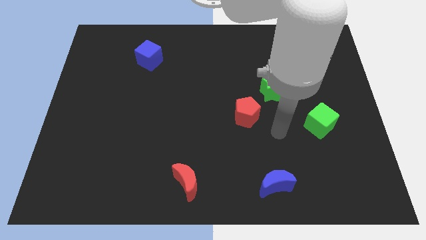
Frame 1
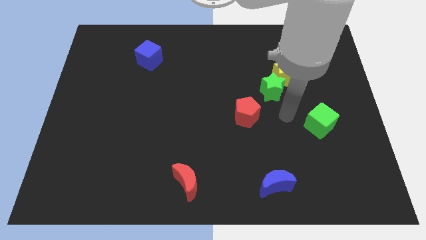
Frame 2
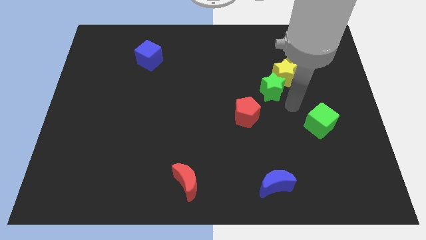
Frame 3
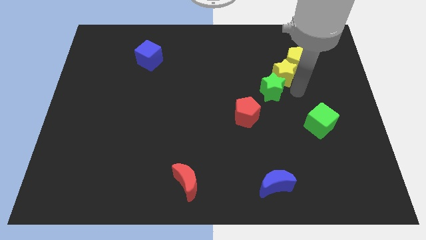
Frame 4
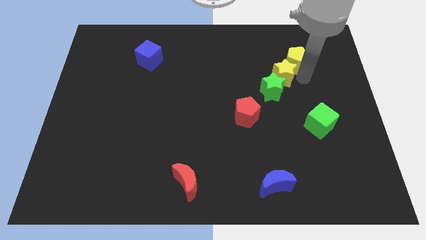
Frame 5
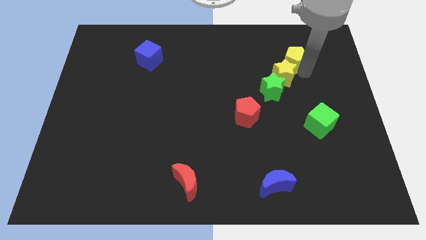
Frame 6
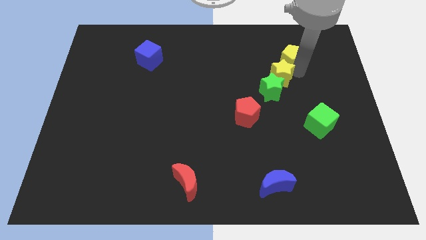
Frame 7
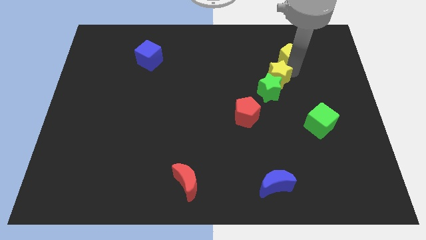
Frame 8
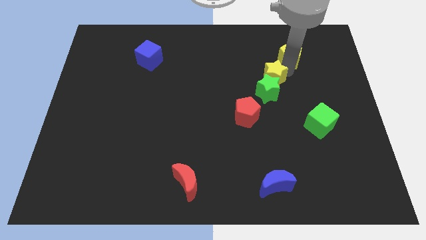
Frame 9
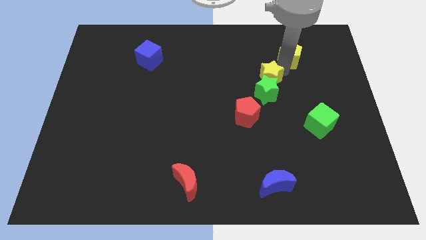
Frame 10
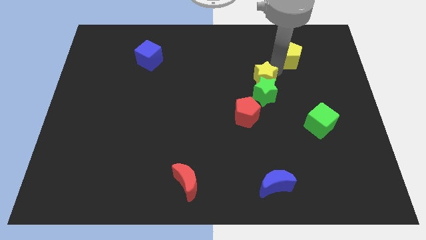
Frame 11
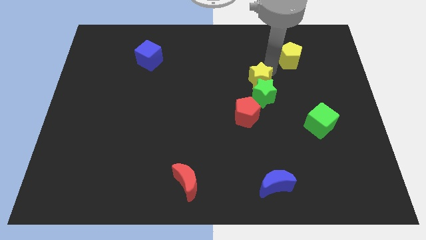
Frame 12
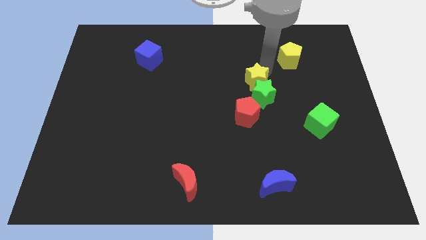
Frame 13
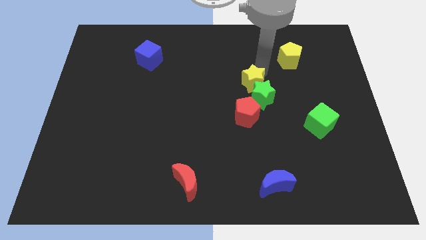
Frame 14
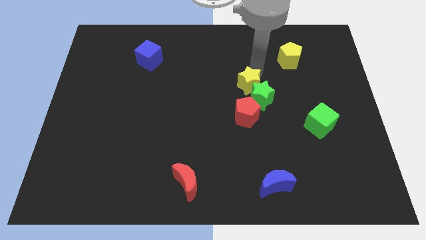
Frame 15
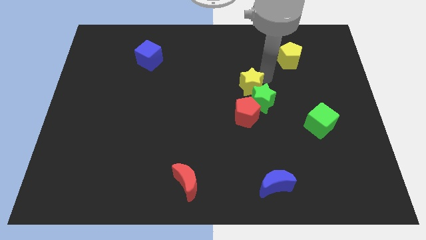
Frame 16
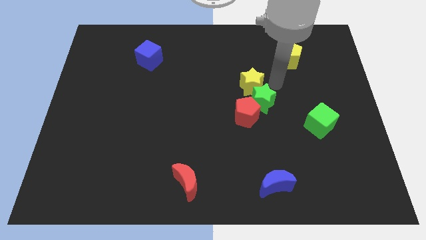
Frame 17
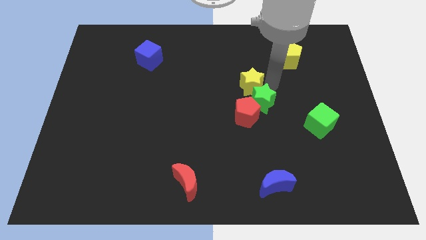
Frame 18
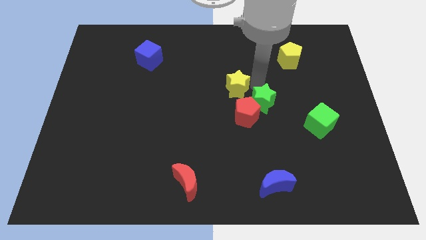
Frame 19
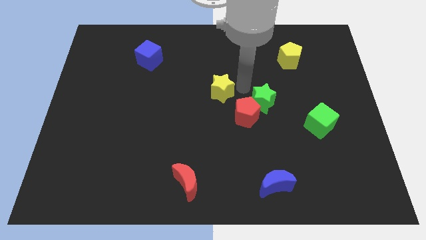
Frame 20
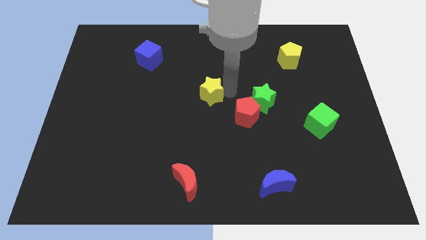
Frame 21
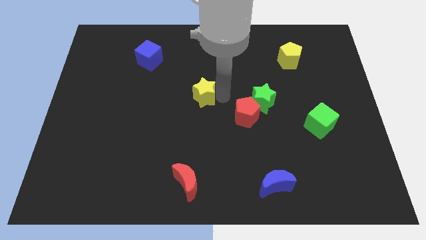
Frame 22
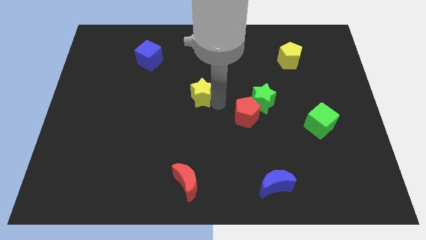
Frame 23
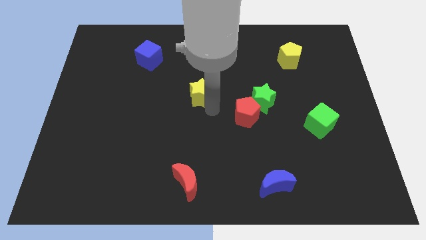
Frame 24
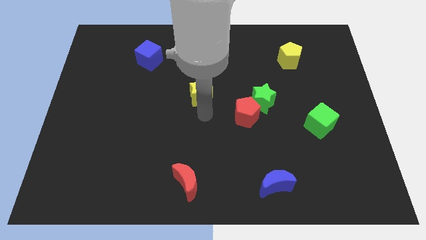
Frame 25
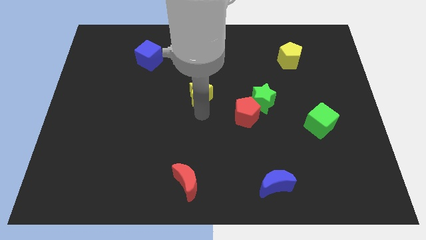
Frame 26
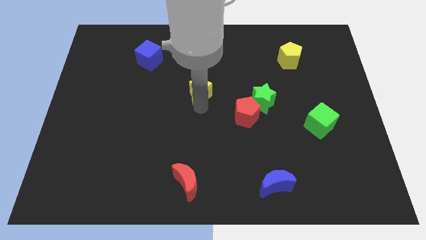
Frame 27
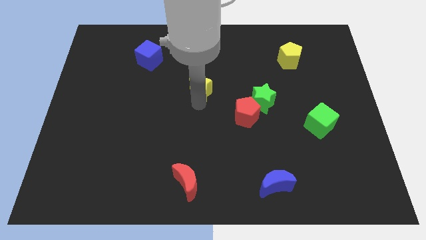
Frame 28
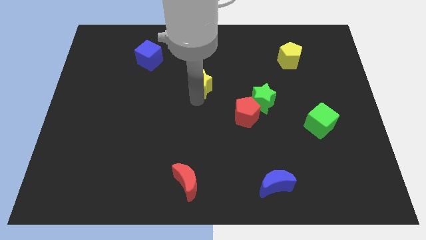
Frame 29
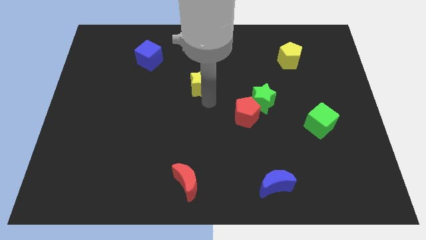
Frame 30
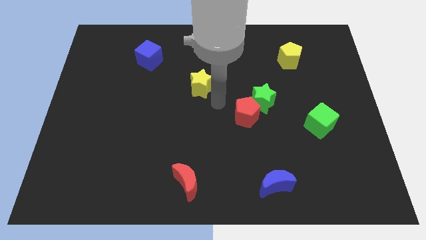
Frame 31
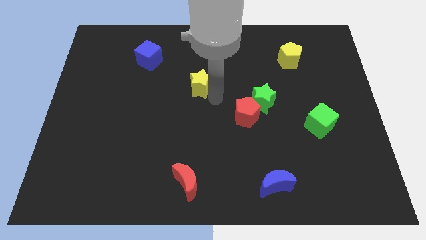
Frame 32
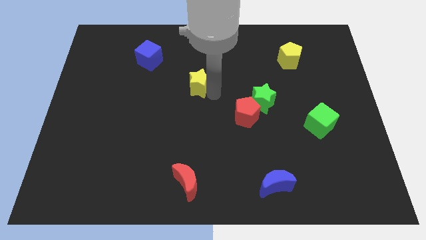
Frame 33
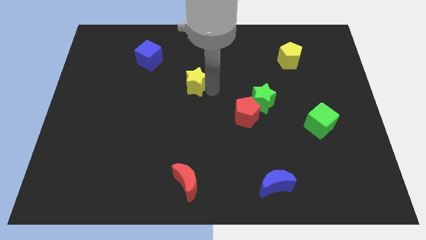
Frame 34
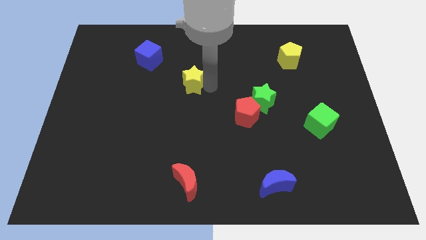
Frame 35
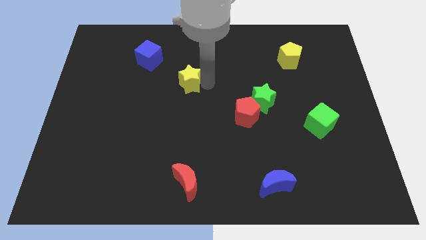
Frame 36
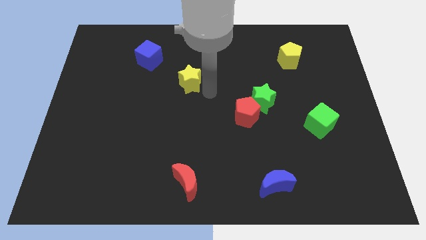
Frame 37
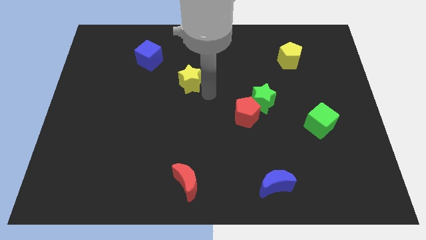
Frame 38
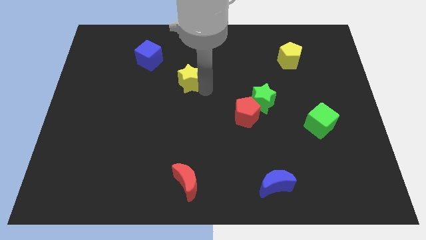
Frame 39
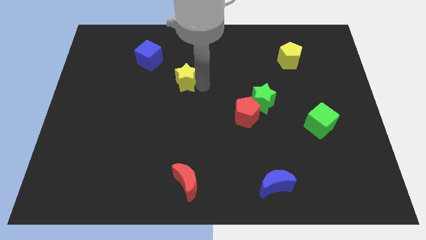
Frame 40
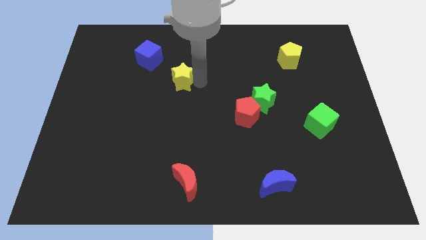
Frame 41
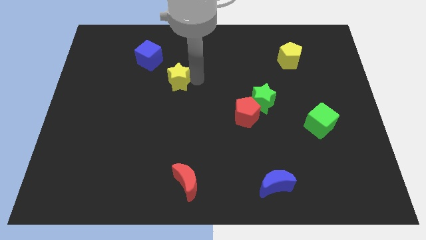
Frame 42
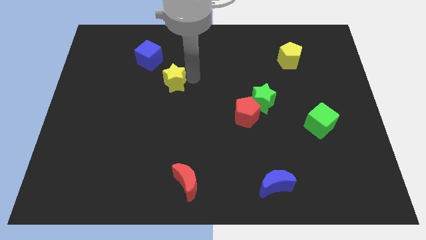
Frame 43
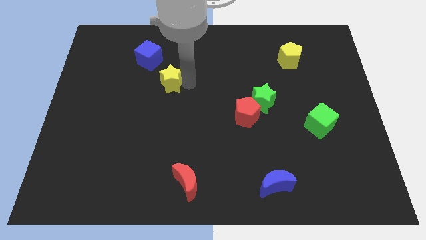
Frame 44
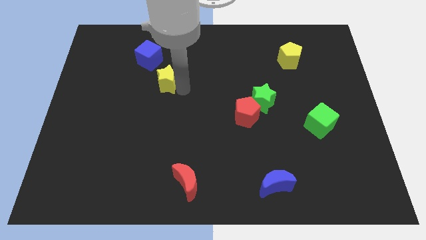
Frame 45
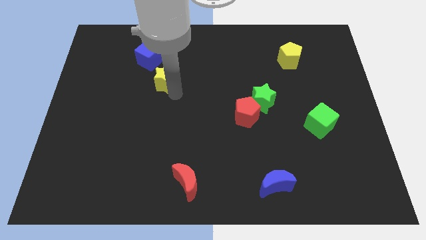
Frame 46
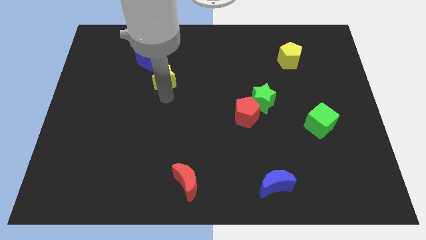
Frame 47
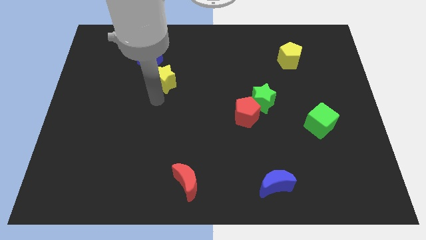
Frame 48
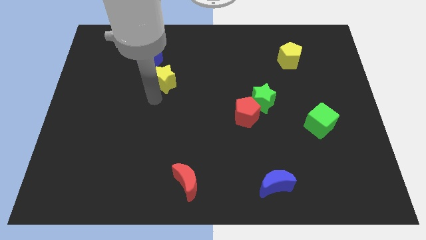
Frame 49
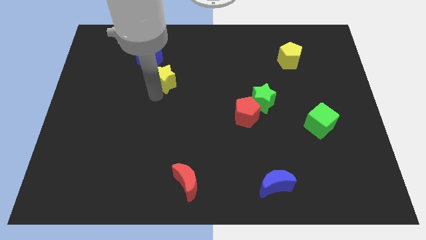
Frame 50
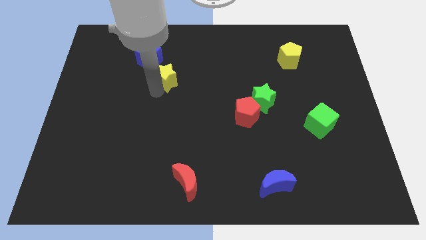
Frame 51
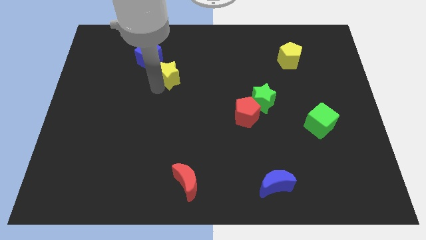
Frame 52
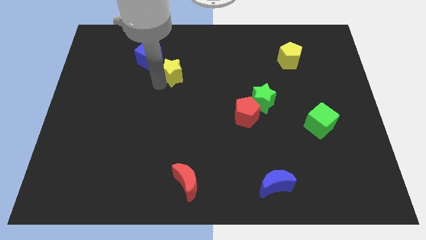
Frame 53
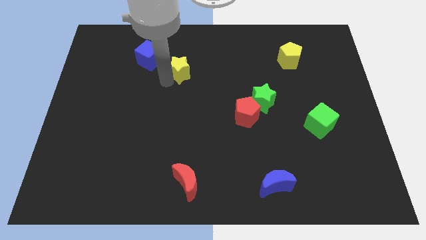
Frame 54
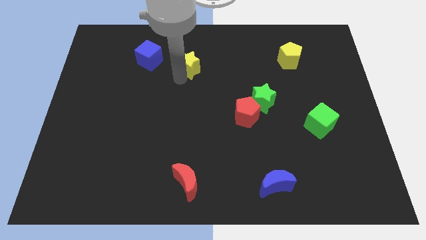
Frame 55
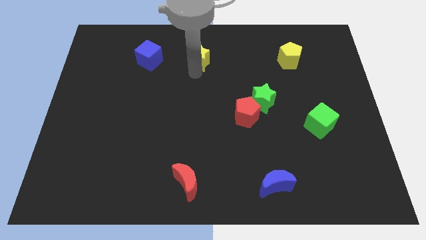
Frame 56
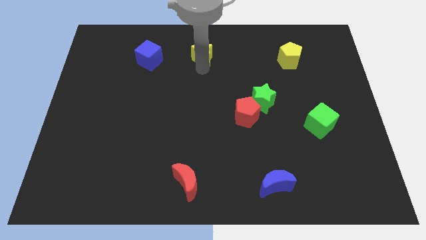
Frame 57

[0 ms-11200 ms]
put the yellow star to the top side

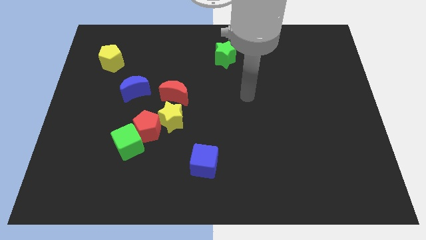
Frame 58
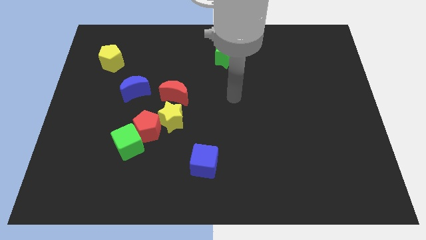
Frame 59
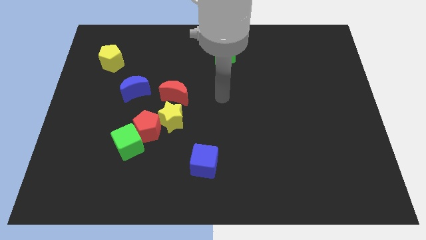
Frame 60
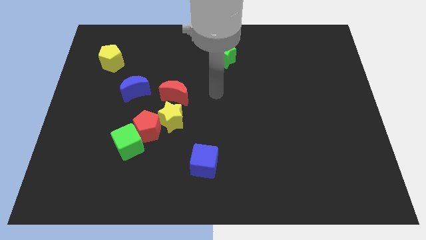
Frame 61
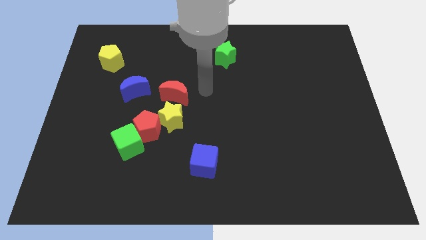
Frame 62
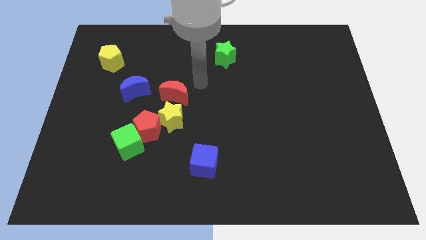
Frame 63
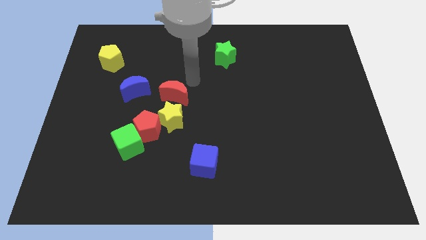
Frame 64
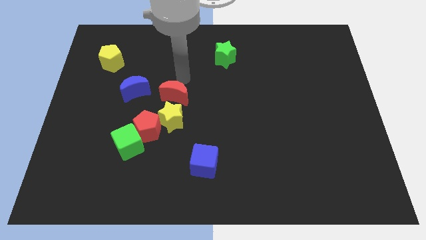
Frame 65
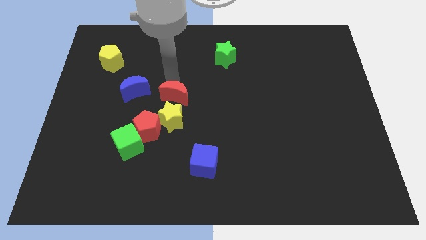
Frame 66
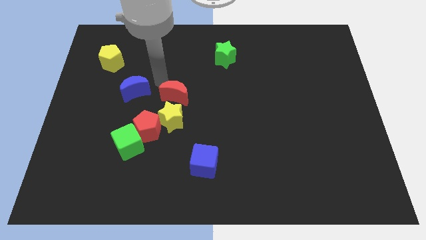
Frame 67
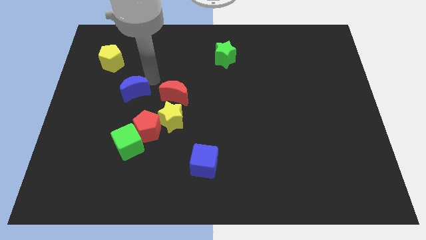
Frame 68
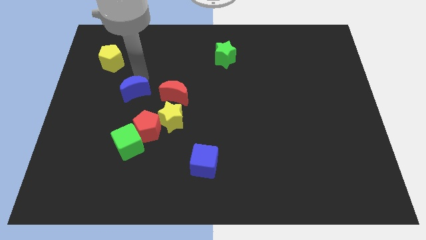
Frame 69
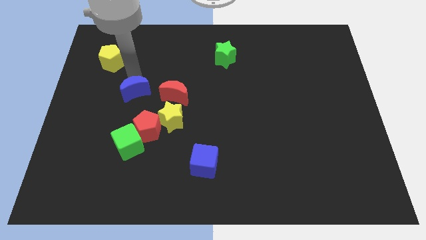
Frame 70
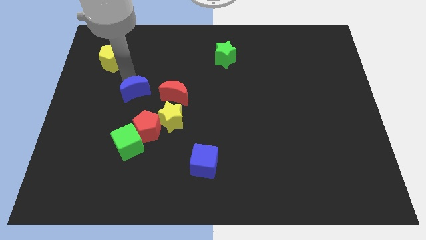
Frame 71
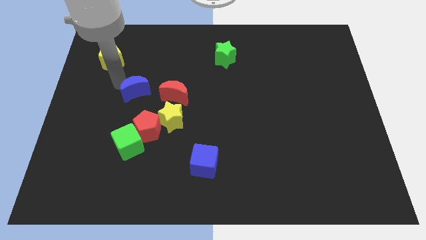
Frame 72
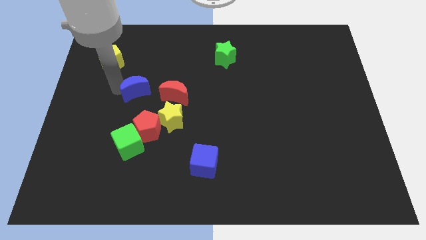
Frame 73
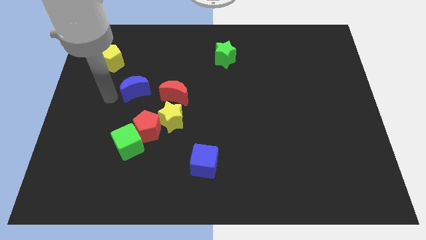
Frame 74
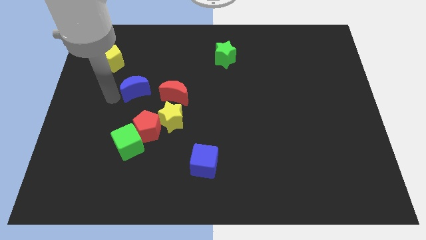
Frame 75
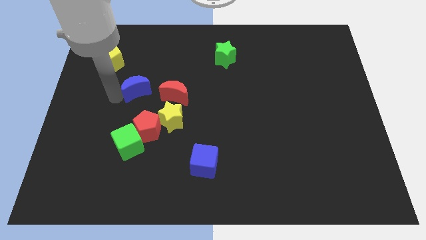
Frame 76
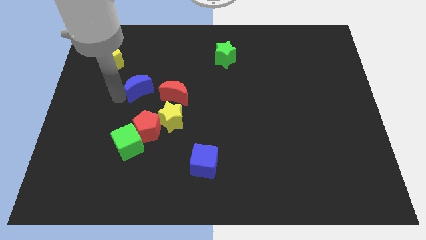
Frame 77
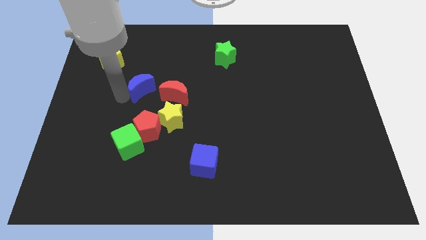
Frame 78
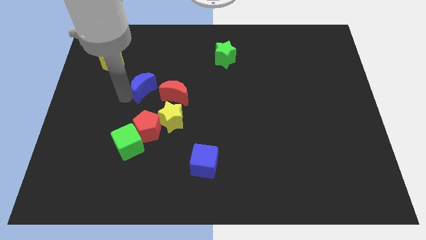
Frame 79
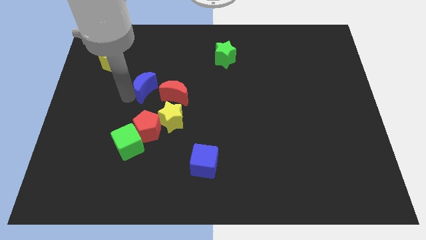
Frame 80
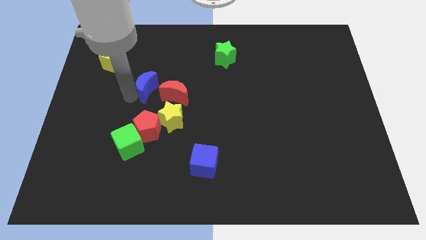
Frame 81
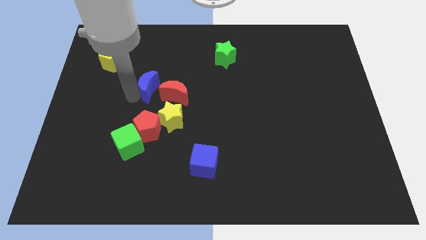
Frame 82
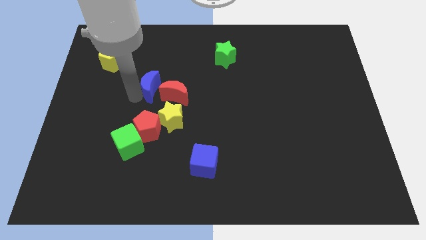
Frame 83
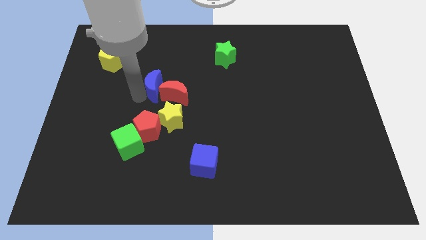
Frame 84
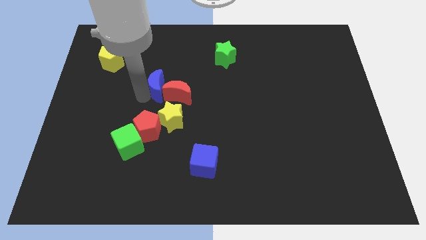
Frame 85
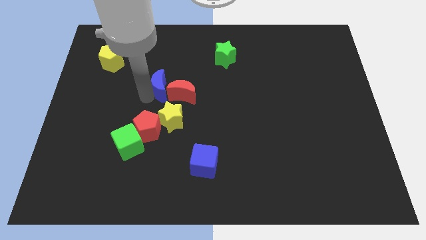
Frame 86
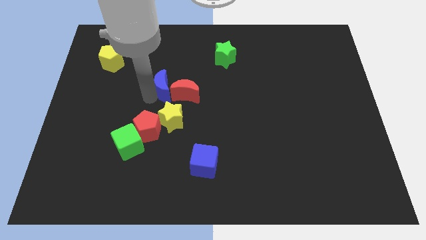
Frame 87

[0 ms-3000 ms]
move the blue moon to the middle of the board
